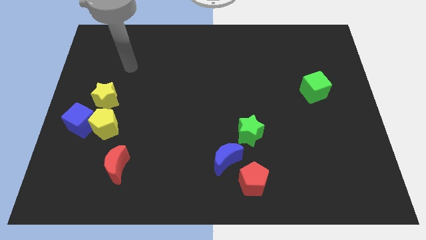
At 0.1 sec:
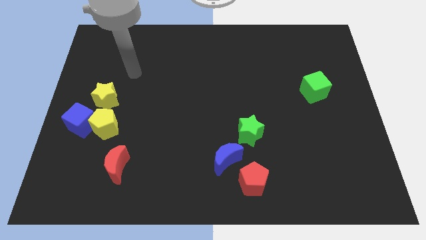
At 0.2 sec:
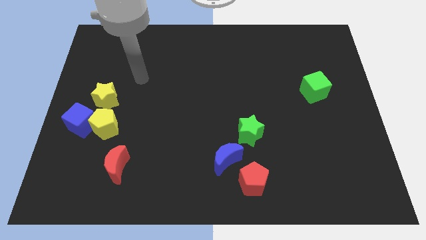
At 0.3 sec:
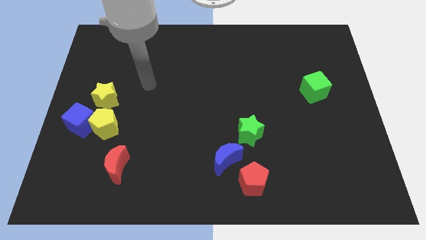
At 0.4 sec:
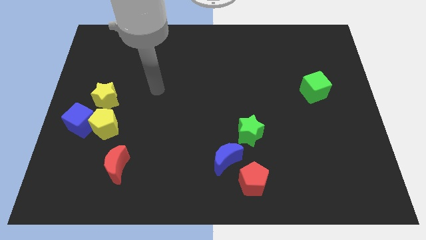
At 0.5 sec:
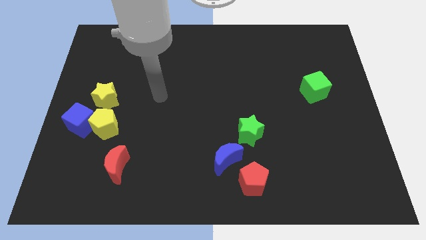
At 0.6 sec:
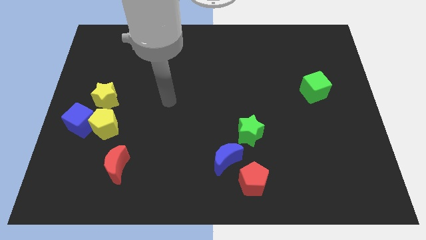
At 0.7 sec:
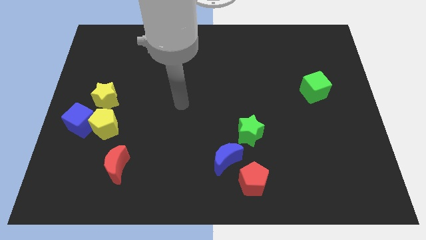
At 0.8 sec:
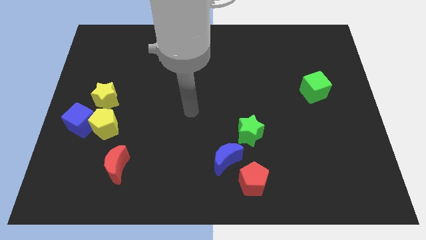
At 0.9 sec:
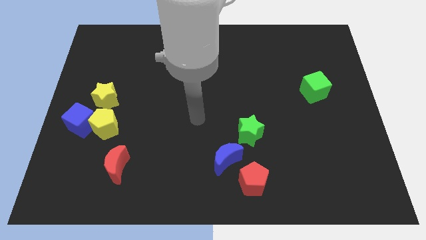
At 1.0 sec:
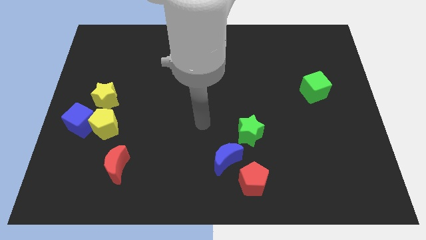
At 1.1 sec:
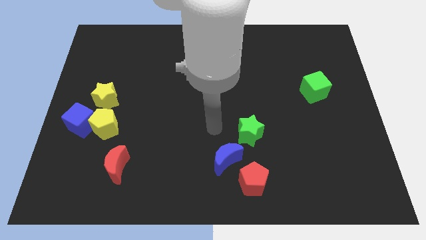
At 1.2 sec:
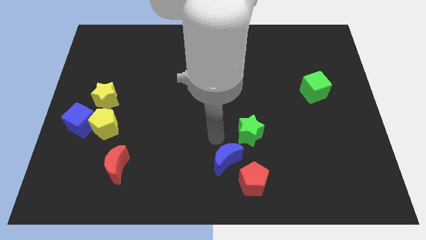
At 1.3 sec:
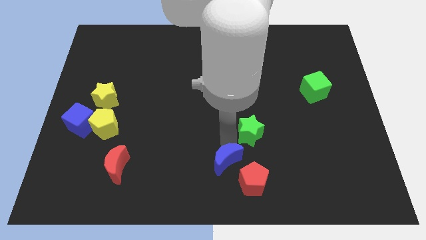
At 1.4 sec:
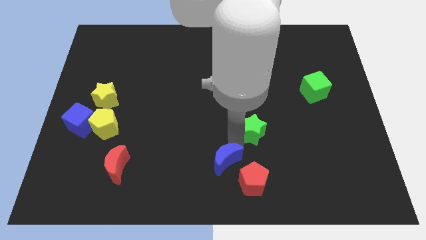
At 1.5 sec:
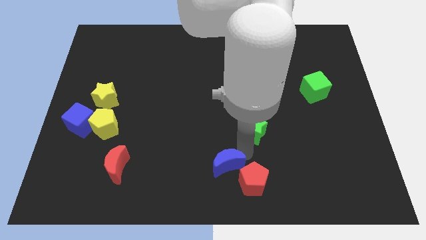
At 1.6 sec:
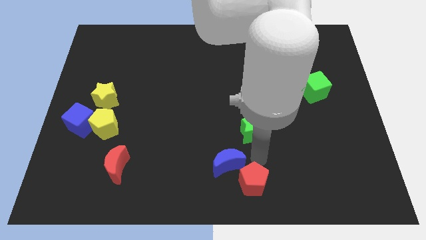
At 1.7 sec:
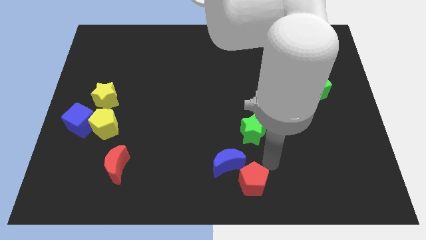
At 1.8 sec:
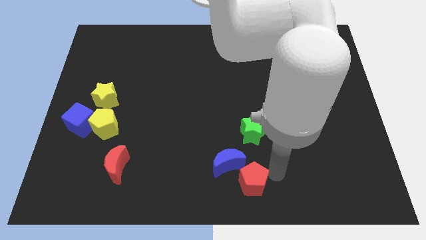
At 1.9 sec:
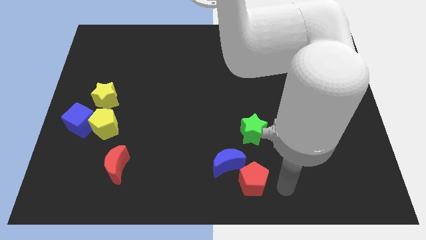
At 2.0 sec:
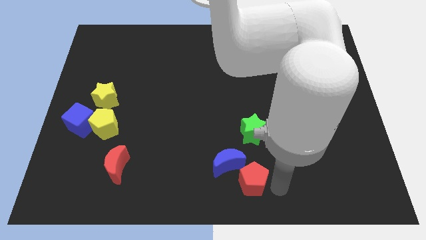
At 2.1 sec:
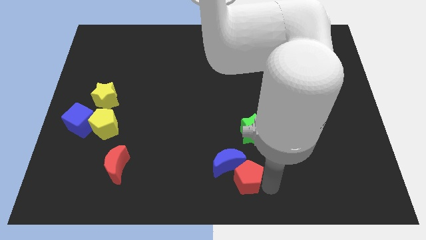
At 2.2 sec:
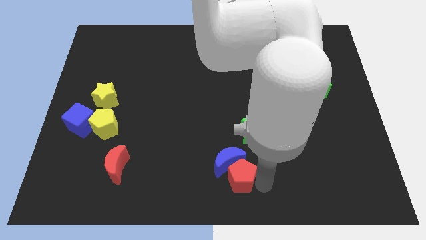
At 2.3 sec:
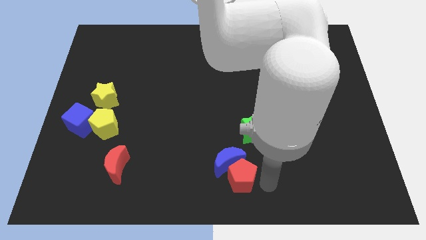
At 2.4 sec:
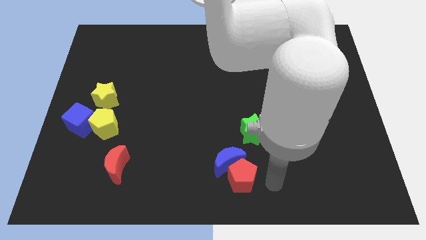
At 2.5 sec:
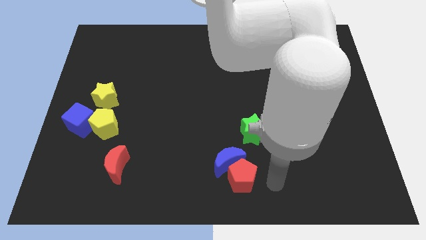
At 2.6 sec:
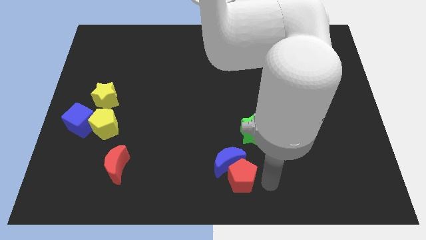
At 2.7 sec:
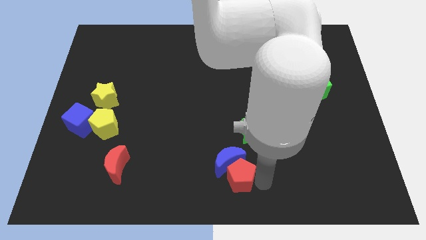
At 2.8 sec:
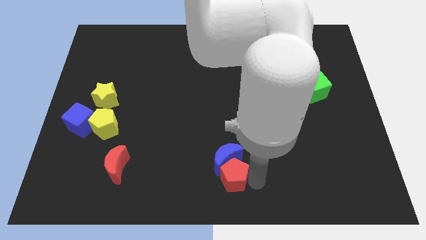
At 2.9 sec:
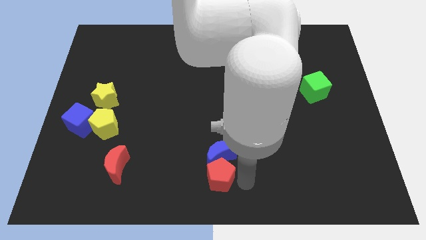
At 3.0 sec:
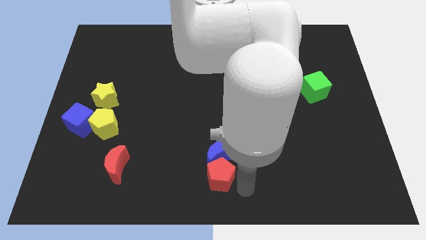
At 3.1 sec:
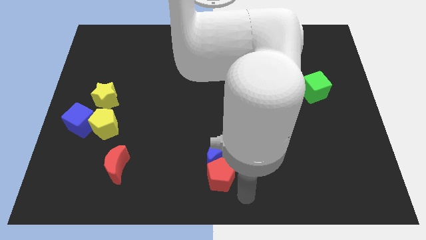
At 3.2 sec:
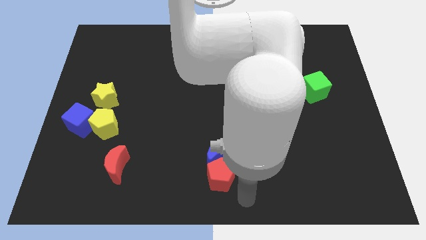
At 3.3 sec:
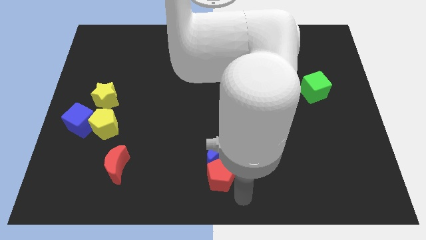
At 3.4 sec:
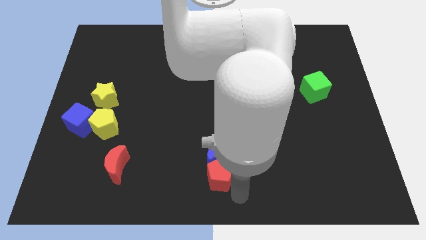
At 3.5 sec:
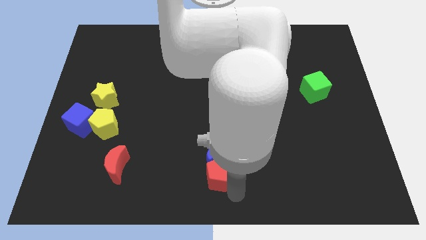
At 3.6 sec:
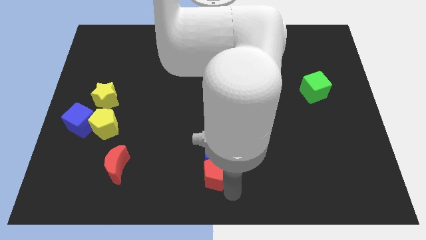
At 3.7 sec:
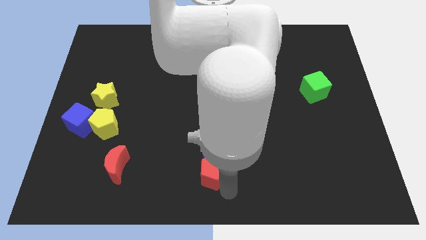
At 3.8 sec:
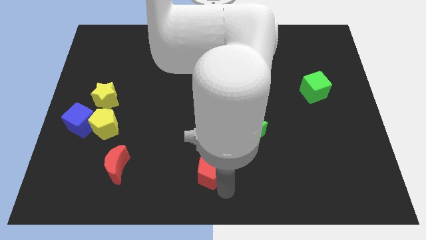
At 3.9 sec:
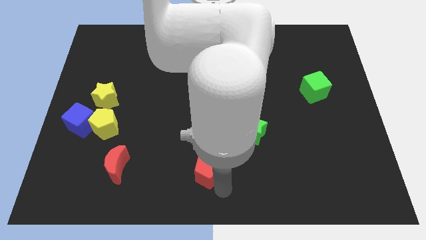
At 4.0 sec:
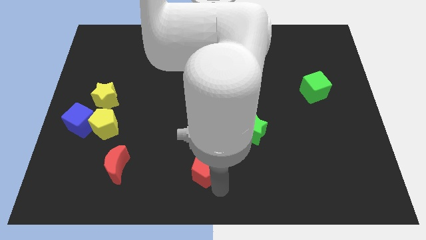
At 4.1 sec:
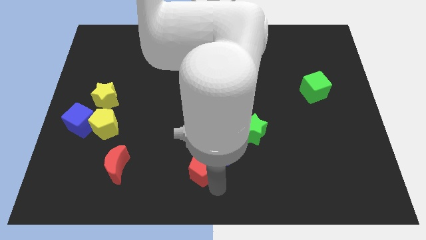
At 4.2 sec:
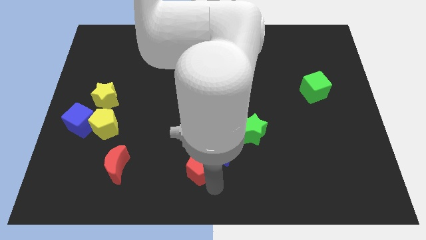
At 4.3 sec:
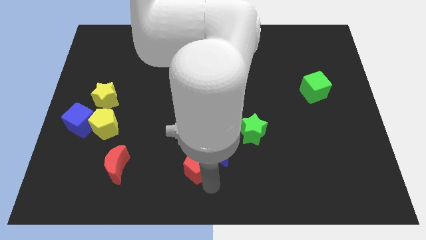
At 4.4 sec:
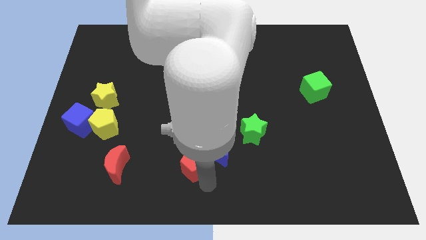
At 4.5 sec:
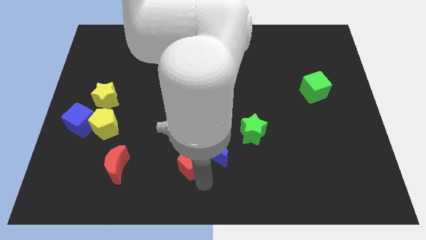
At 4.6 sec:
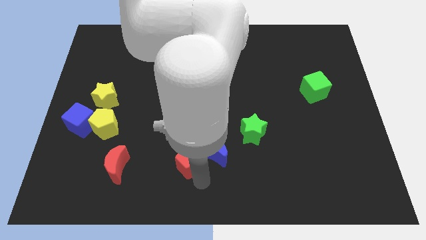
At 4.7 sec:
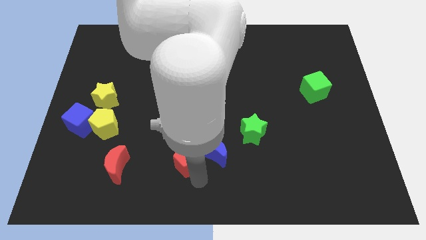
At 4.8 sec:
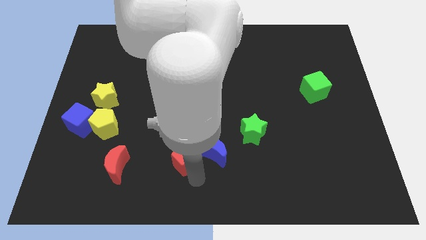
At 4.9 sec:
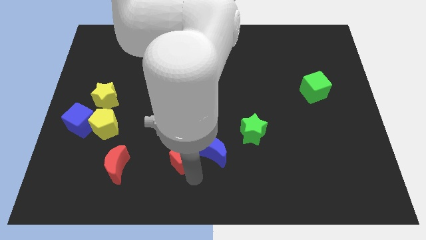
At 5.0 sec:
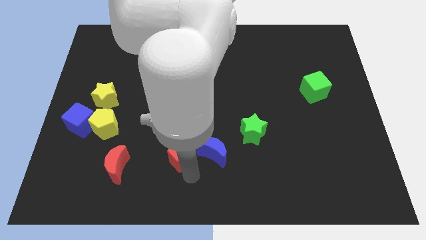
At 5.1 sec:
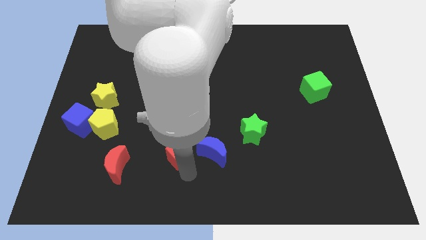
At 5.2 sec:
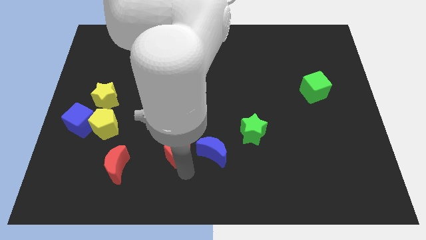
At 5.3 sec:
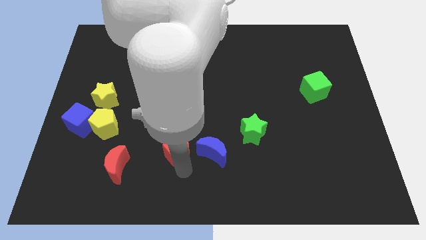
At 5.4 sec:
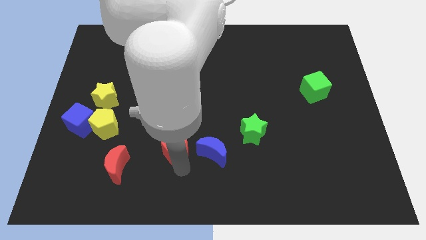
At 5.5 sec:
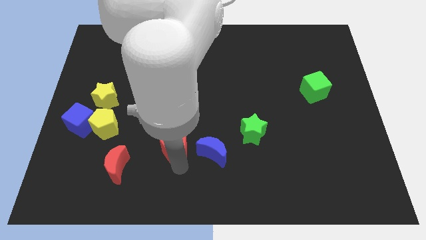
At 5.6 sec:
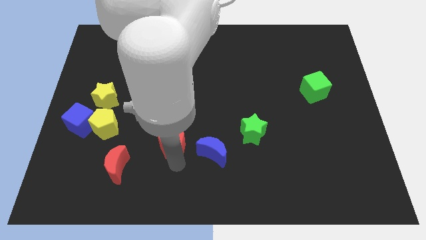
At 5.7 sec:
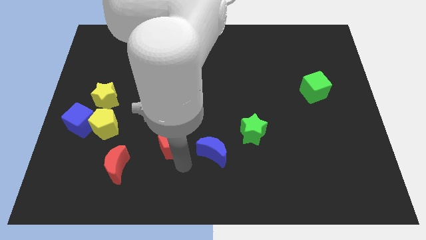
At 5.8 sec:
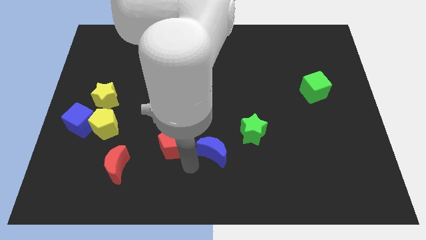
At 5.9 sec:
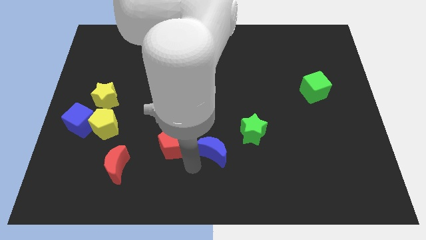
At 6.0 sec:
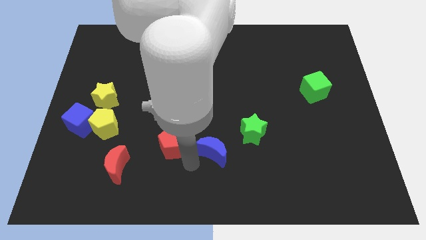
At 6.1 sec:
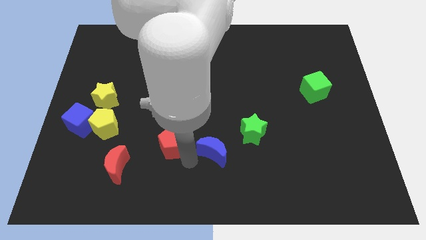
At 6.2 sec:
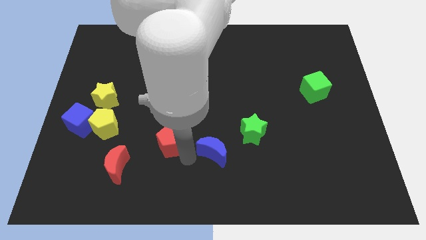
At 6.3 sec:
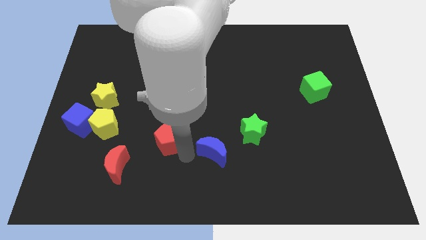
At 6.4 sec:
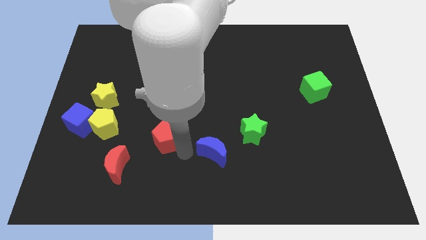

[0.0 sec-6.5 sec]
push the red pentagon to the right side of the yellow pentagon
